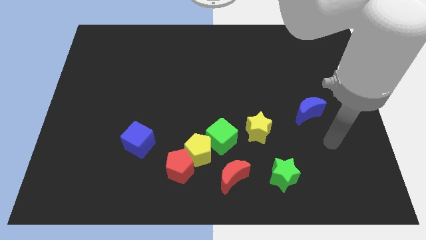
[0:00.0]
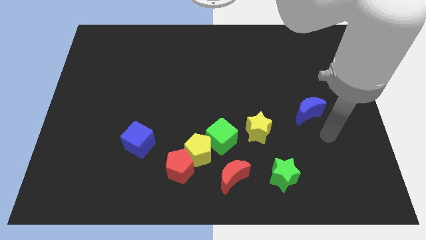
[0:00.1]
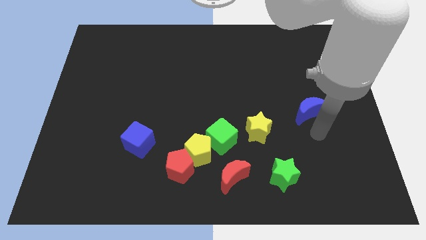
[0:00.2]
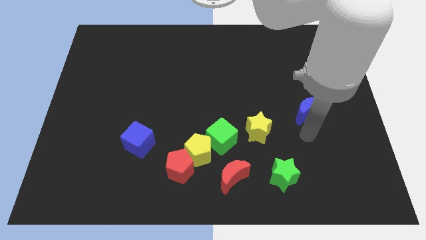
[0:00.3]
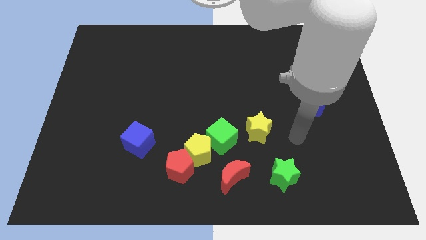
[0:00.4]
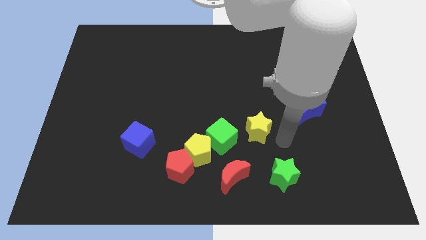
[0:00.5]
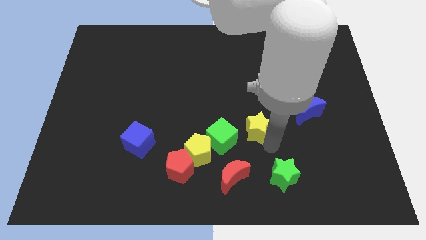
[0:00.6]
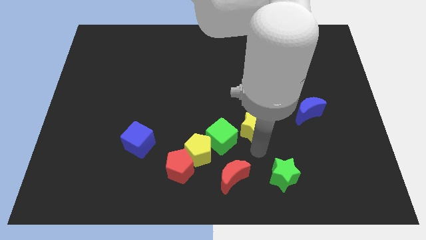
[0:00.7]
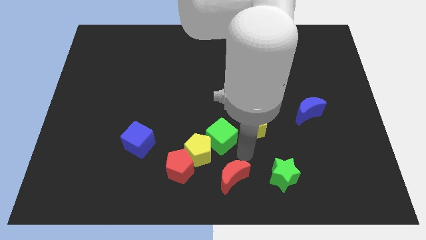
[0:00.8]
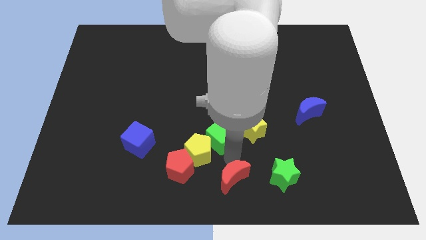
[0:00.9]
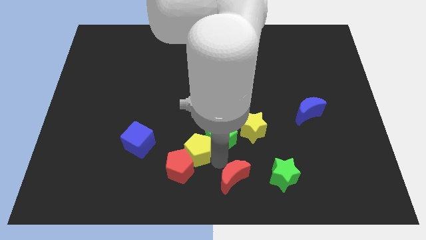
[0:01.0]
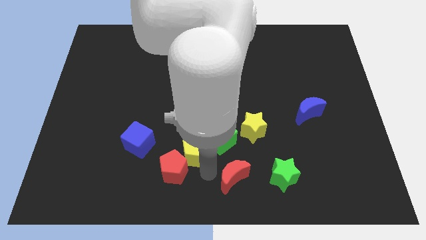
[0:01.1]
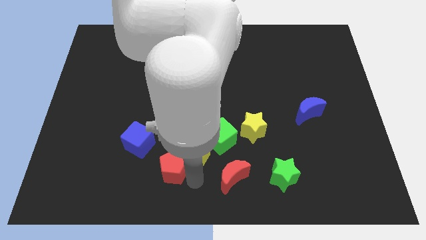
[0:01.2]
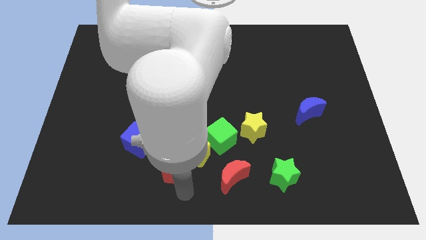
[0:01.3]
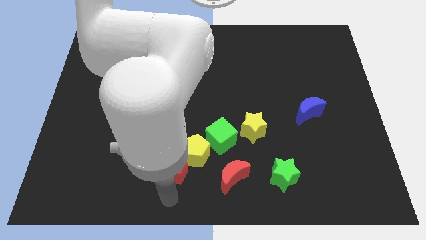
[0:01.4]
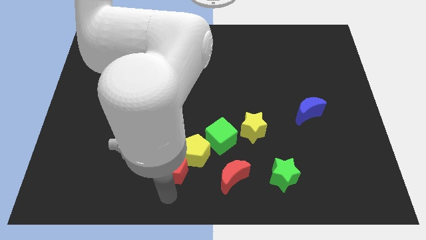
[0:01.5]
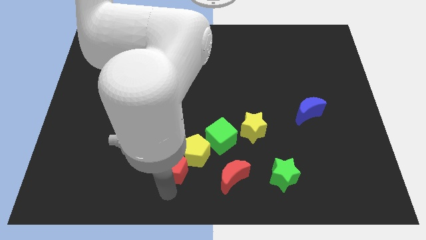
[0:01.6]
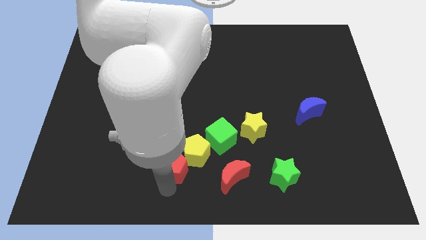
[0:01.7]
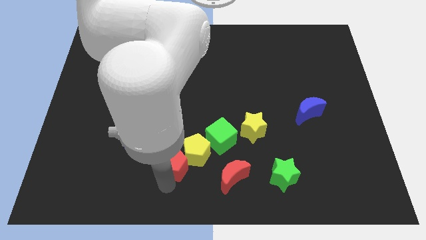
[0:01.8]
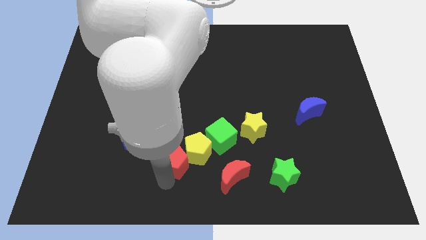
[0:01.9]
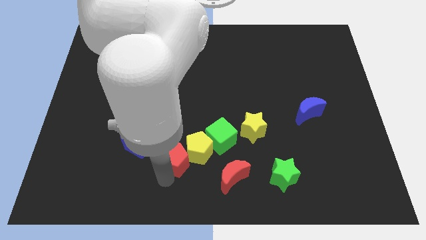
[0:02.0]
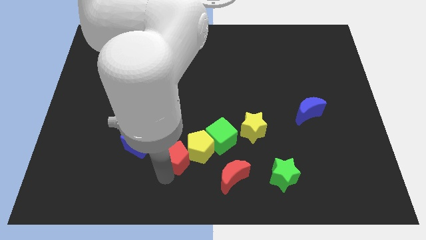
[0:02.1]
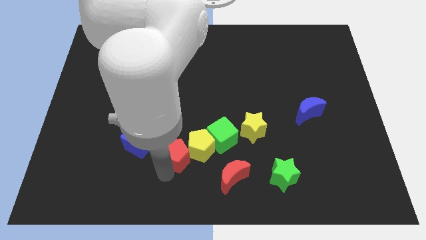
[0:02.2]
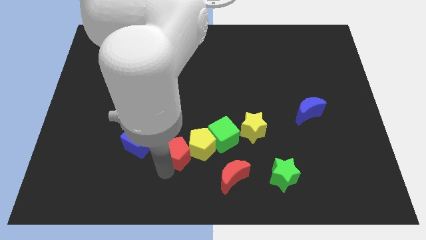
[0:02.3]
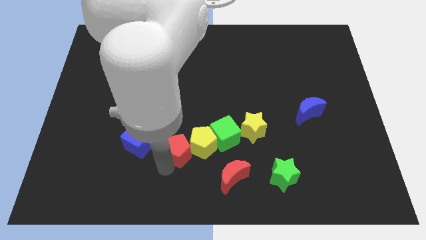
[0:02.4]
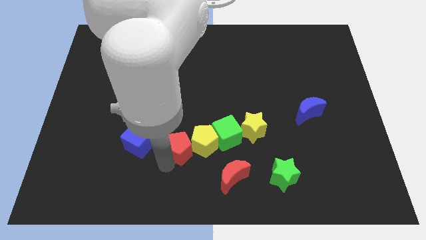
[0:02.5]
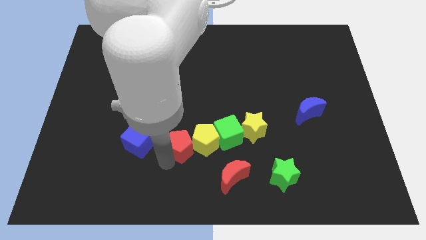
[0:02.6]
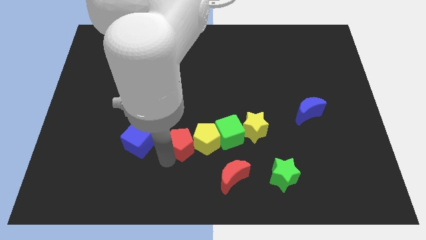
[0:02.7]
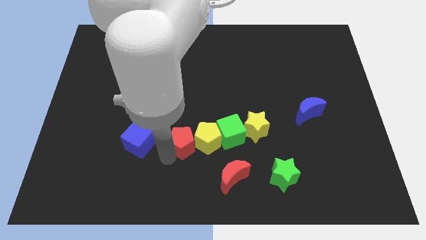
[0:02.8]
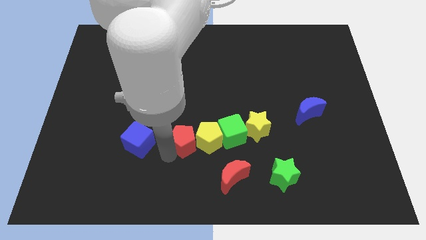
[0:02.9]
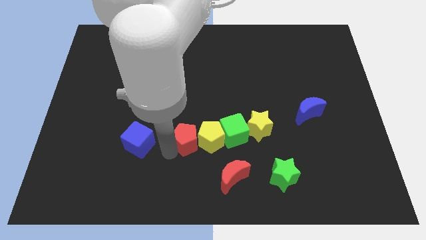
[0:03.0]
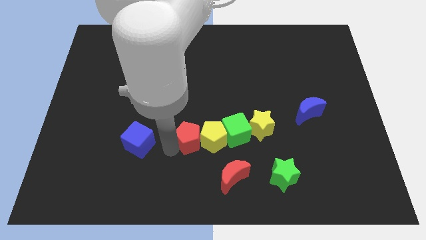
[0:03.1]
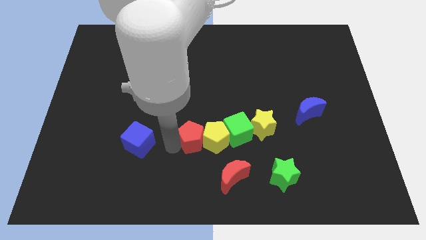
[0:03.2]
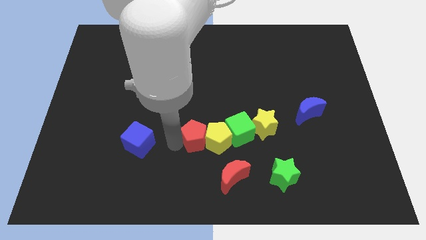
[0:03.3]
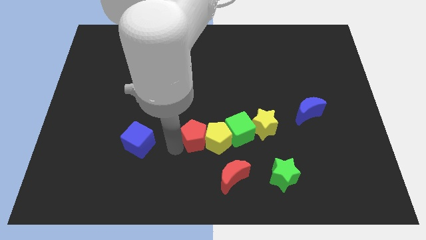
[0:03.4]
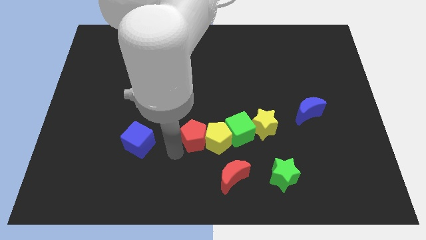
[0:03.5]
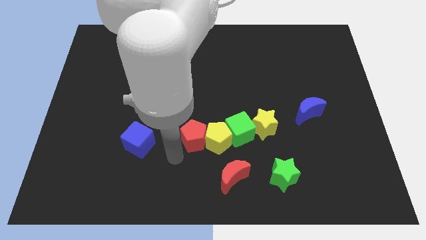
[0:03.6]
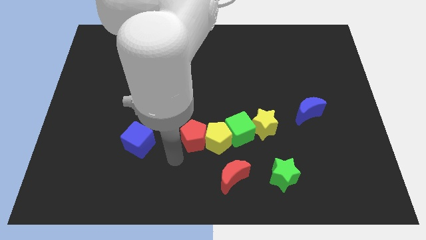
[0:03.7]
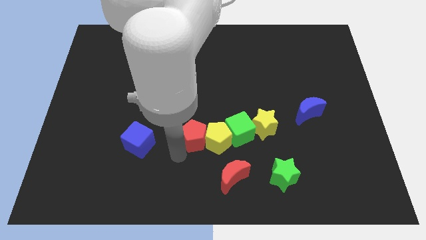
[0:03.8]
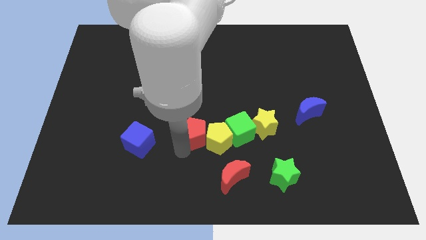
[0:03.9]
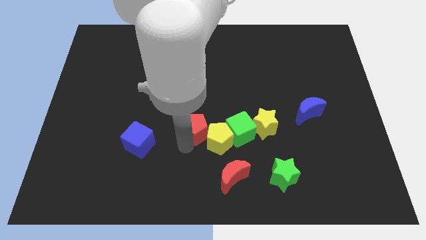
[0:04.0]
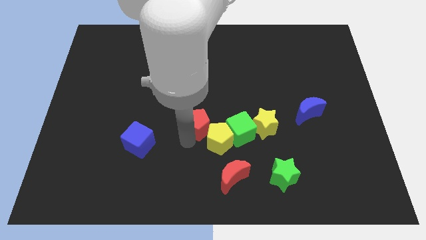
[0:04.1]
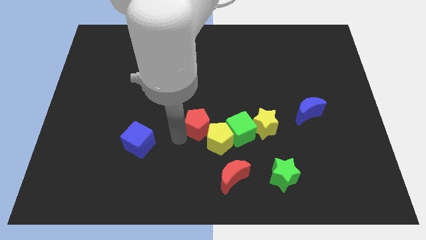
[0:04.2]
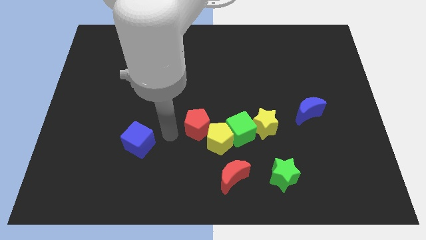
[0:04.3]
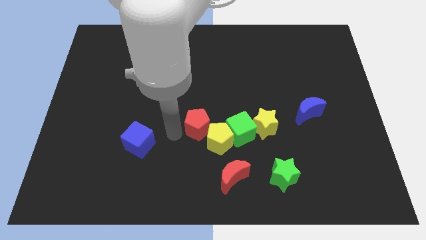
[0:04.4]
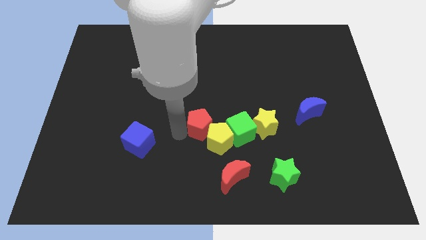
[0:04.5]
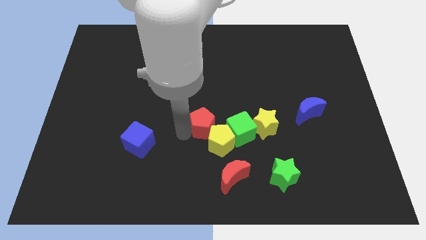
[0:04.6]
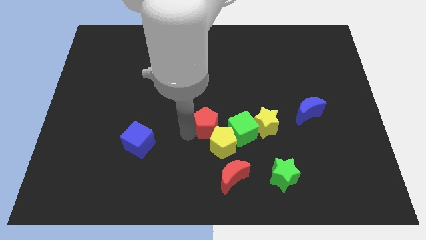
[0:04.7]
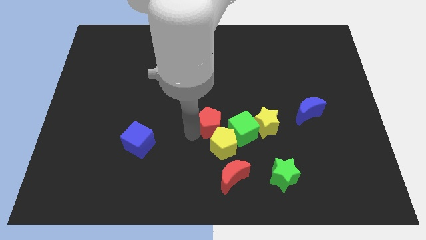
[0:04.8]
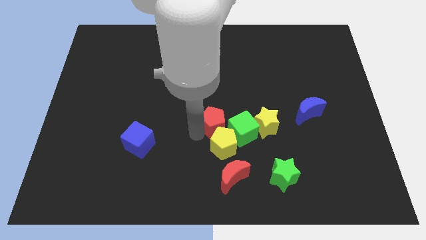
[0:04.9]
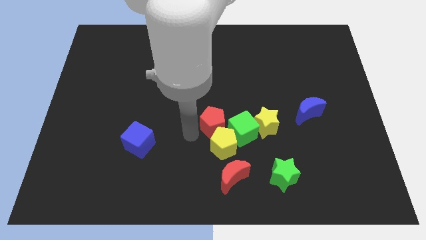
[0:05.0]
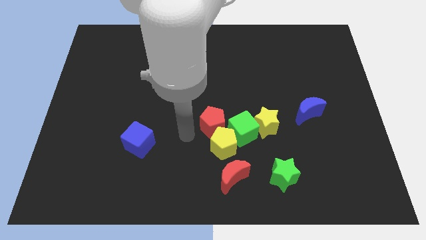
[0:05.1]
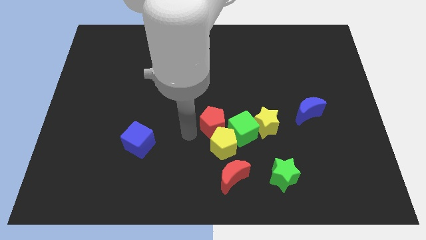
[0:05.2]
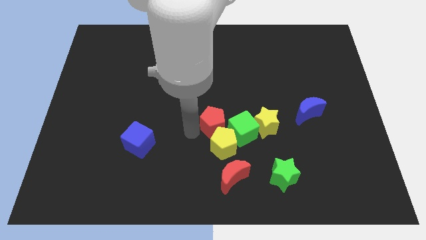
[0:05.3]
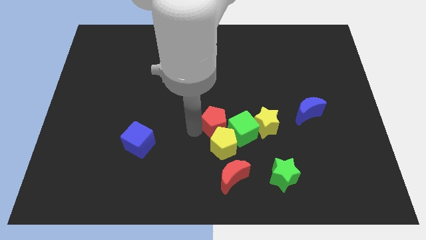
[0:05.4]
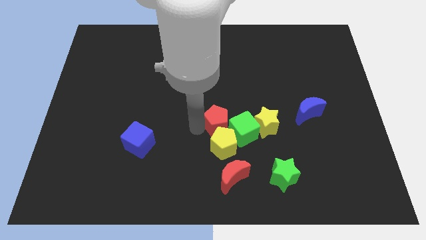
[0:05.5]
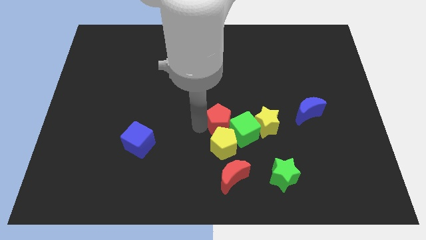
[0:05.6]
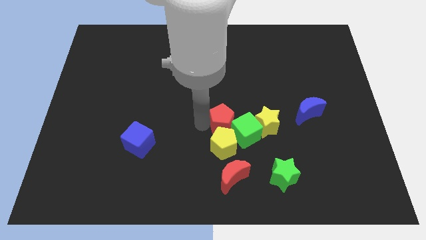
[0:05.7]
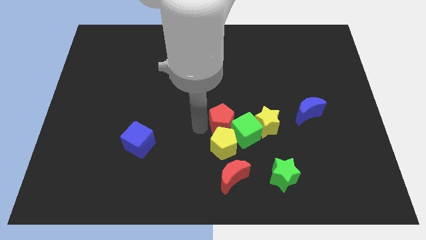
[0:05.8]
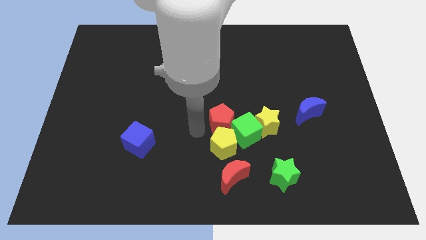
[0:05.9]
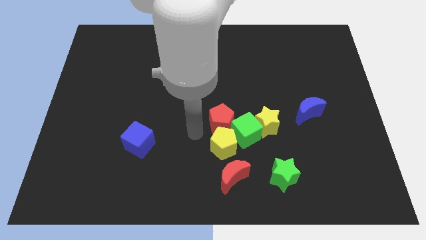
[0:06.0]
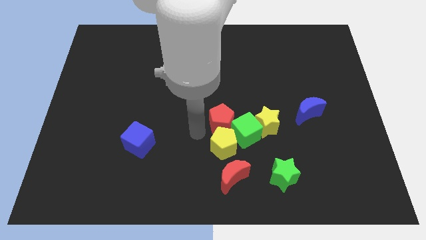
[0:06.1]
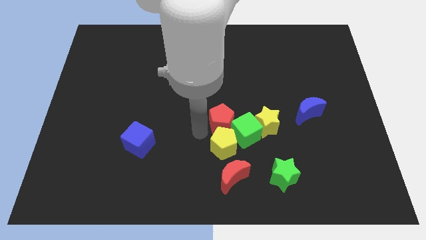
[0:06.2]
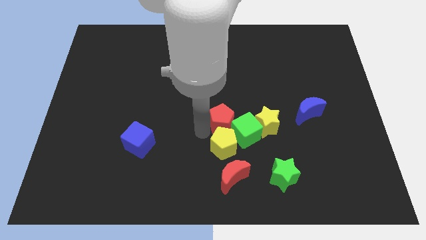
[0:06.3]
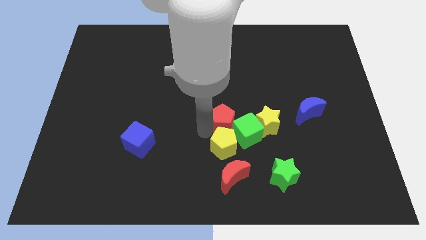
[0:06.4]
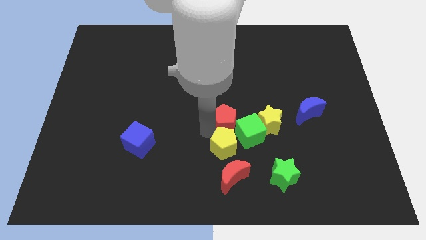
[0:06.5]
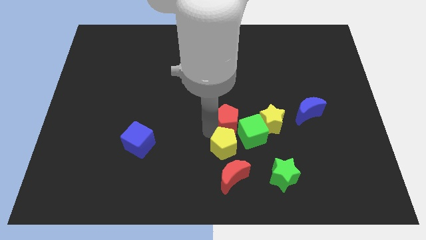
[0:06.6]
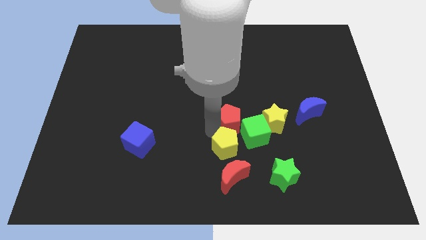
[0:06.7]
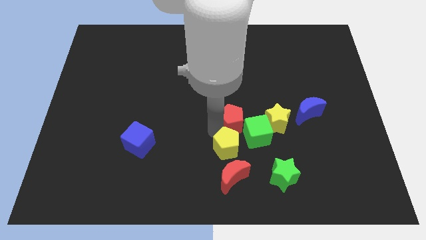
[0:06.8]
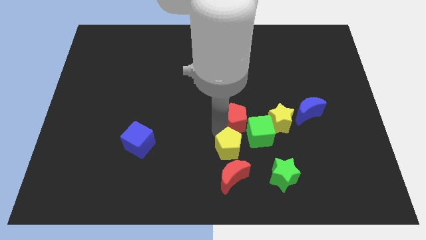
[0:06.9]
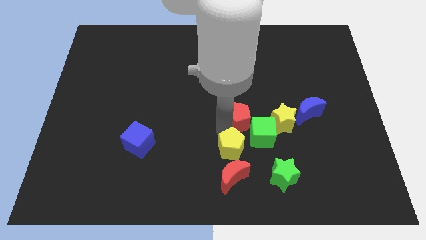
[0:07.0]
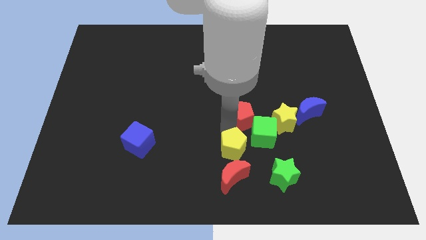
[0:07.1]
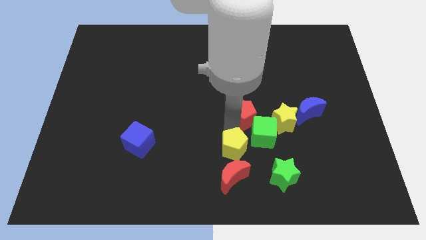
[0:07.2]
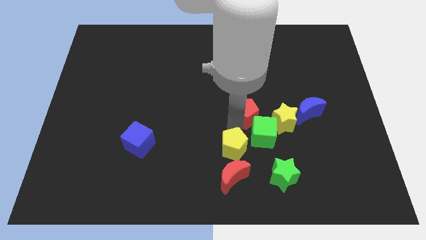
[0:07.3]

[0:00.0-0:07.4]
push the red pentagon upwards and then to the right

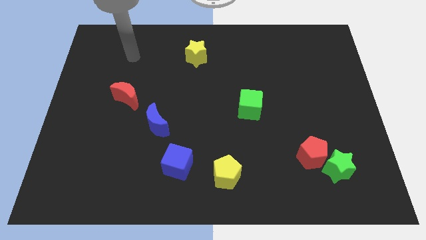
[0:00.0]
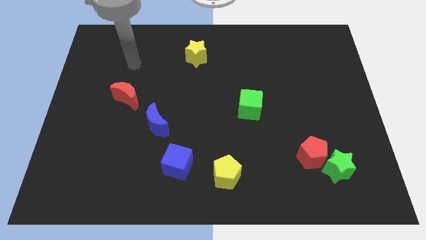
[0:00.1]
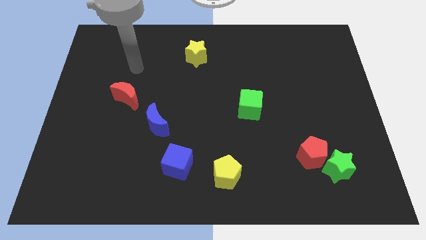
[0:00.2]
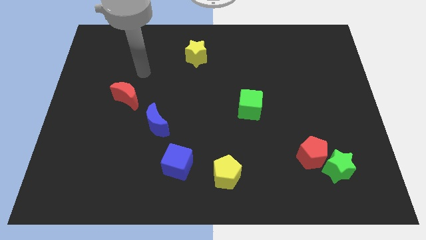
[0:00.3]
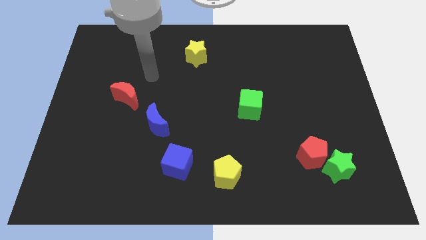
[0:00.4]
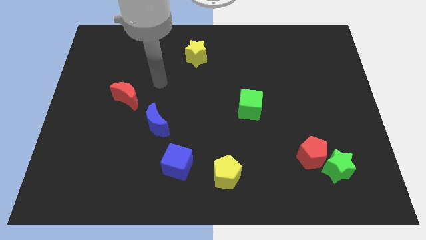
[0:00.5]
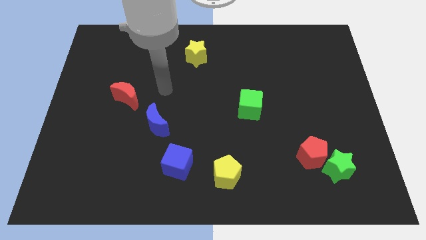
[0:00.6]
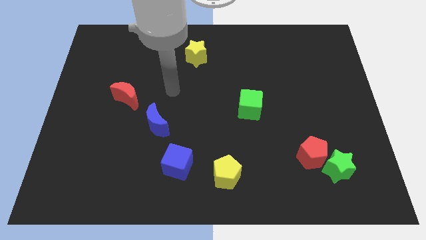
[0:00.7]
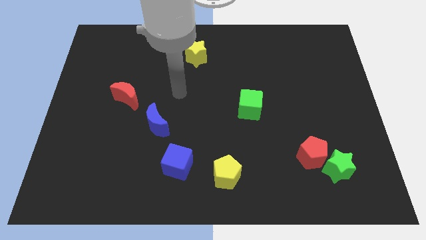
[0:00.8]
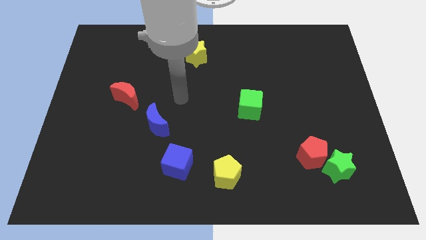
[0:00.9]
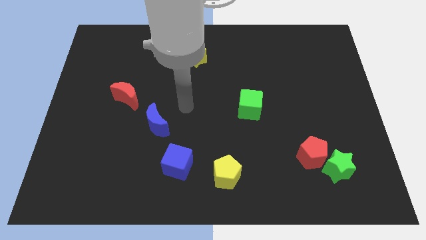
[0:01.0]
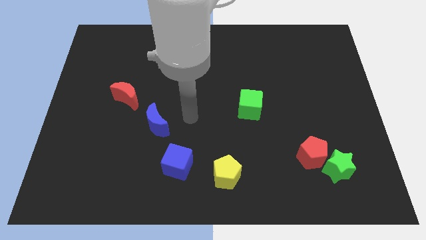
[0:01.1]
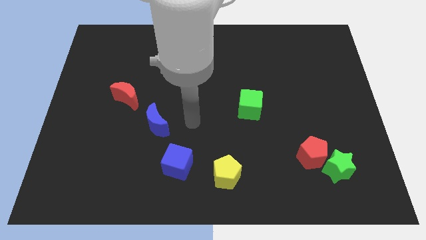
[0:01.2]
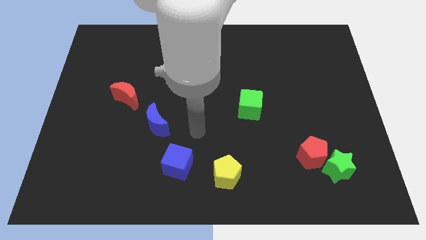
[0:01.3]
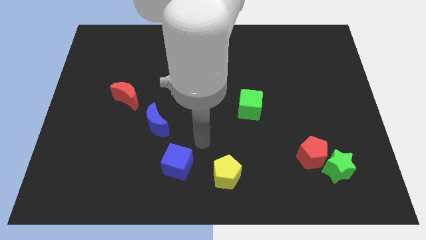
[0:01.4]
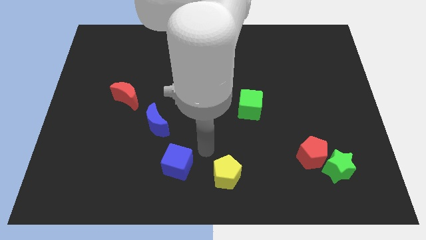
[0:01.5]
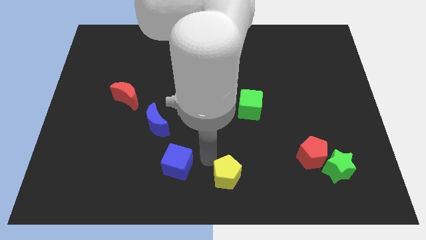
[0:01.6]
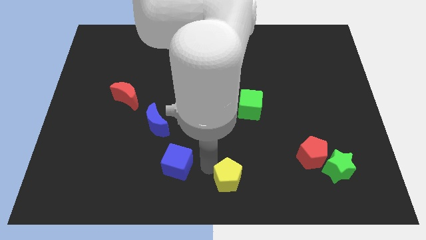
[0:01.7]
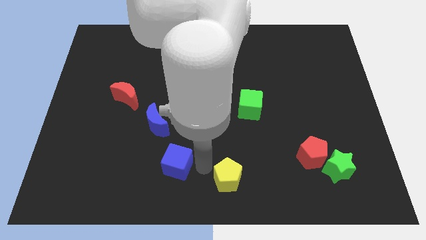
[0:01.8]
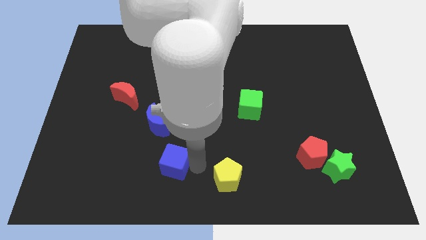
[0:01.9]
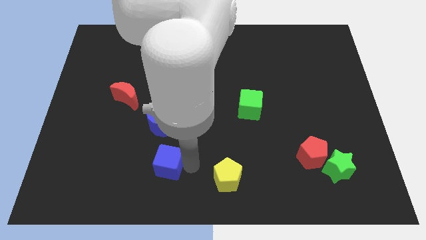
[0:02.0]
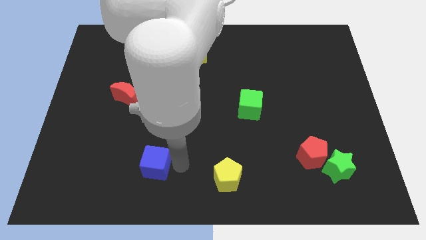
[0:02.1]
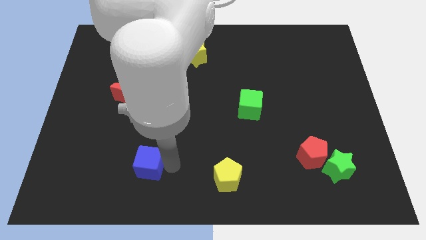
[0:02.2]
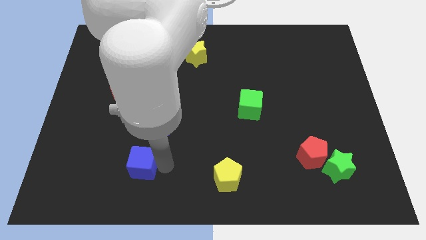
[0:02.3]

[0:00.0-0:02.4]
slide the blue cube a bit to the left
